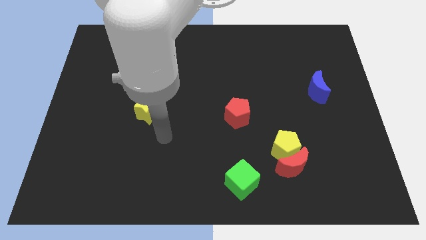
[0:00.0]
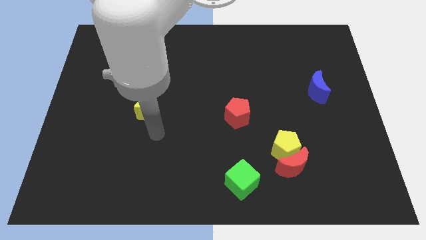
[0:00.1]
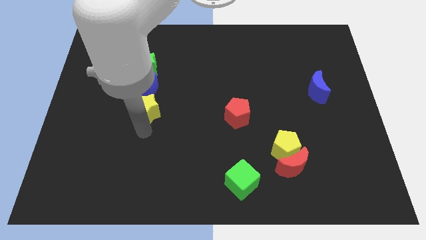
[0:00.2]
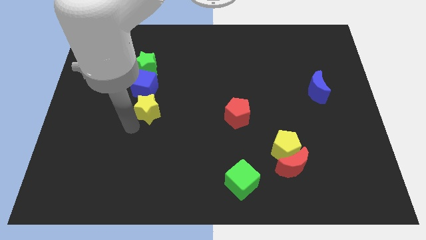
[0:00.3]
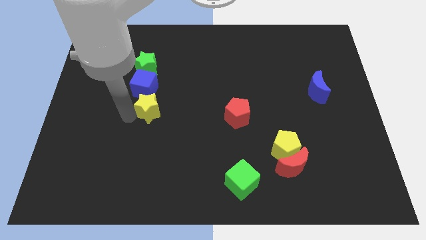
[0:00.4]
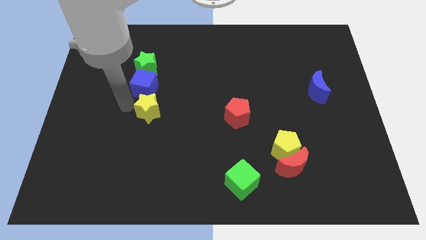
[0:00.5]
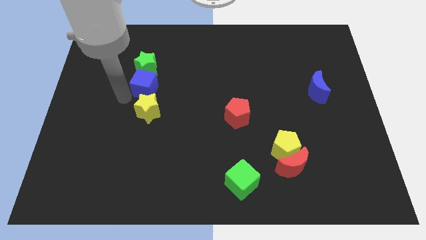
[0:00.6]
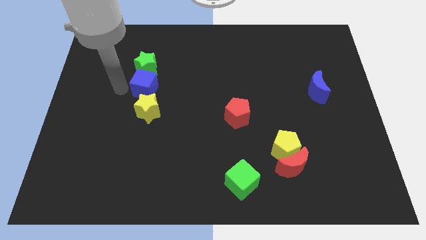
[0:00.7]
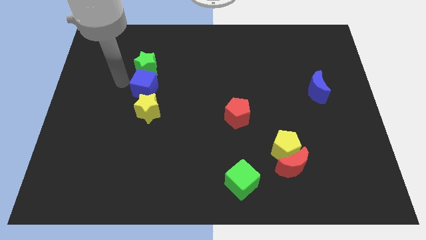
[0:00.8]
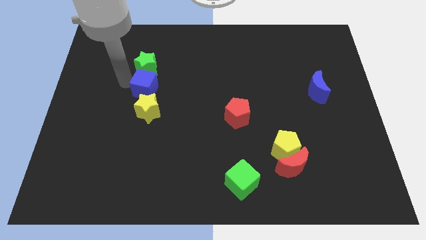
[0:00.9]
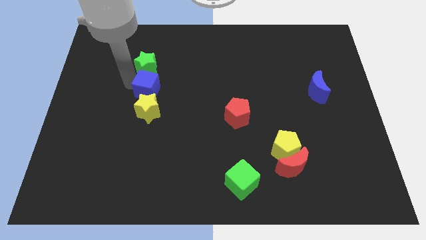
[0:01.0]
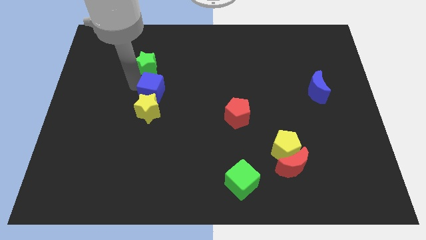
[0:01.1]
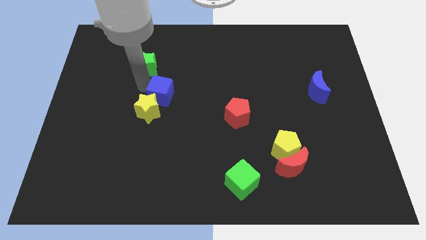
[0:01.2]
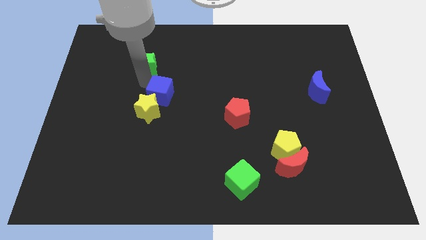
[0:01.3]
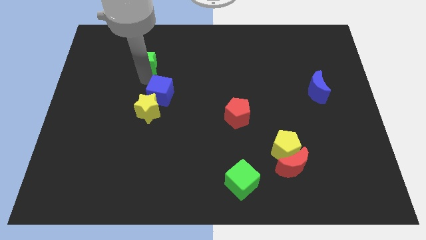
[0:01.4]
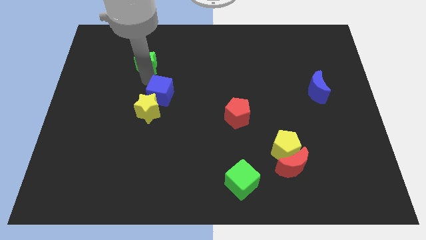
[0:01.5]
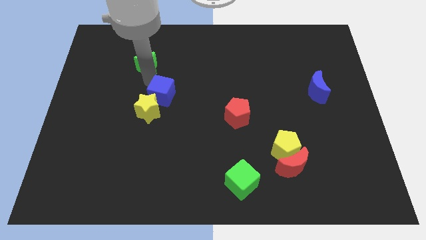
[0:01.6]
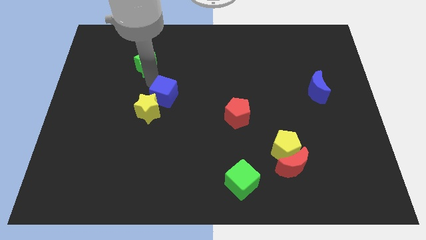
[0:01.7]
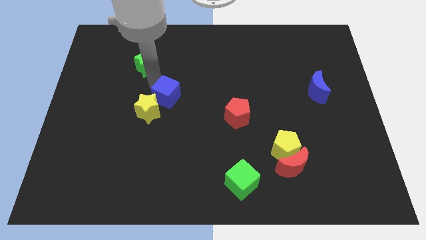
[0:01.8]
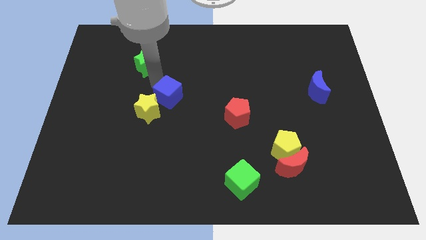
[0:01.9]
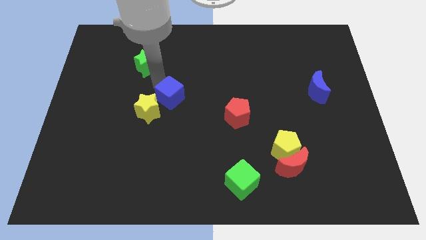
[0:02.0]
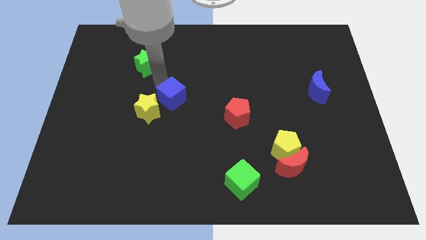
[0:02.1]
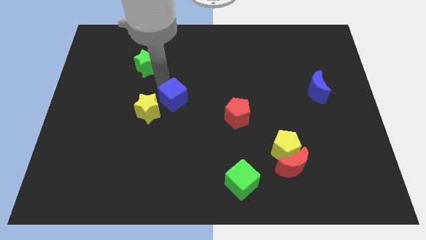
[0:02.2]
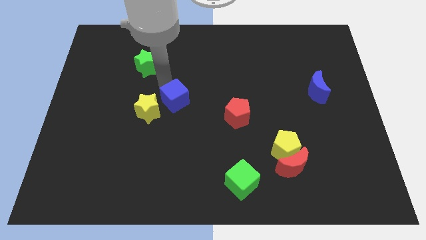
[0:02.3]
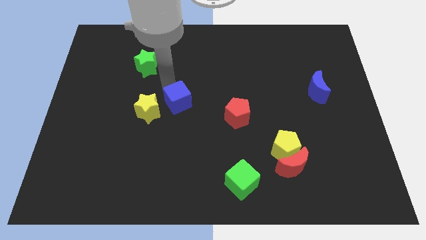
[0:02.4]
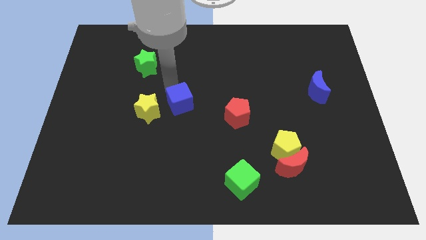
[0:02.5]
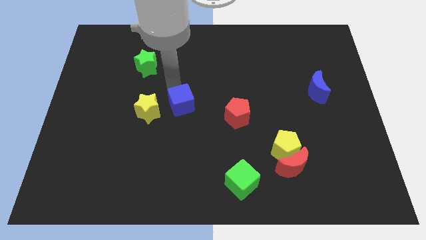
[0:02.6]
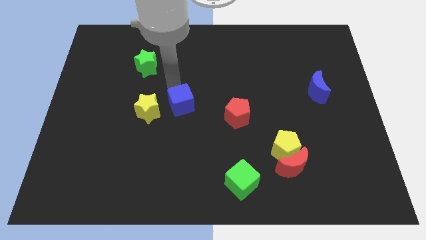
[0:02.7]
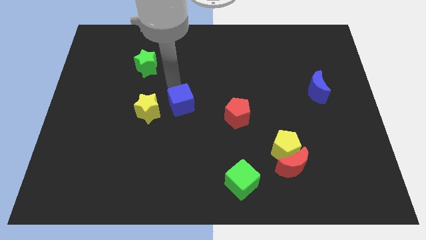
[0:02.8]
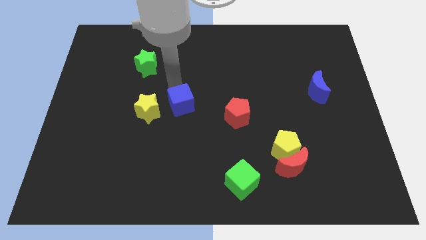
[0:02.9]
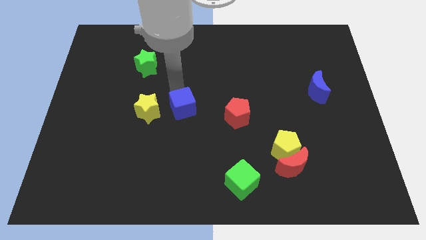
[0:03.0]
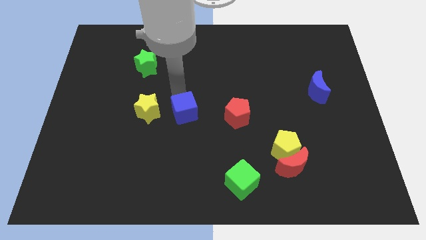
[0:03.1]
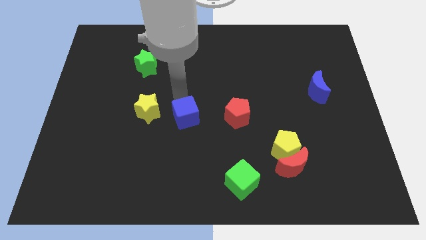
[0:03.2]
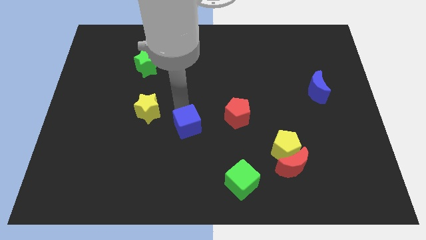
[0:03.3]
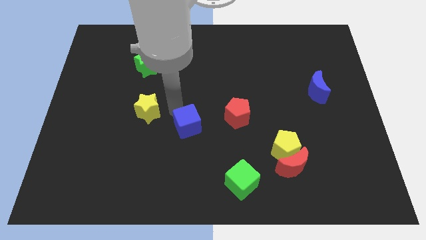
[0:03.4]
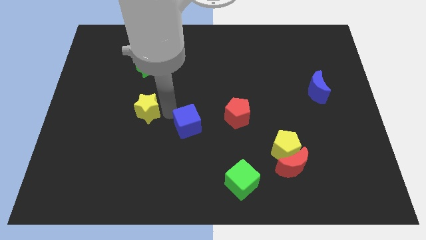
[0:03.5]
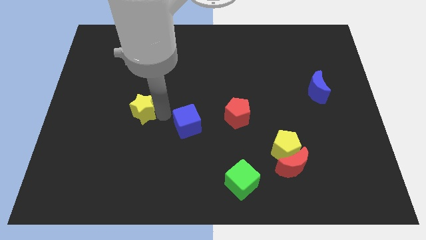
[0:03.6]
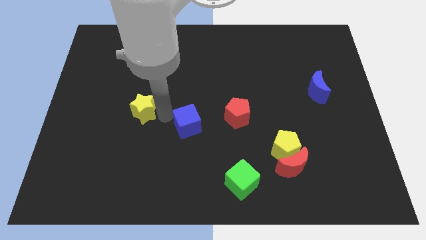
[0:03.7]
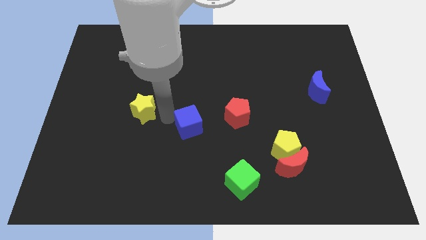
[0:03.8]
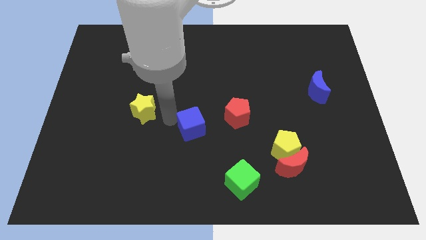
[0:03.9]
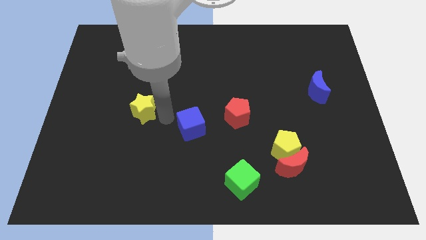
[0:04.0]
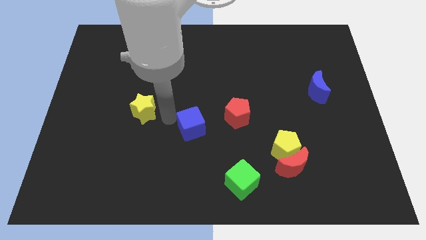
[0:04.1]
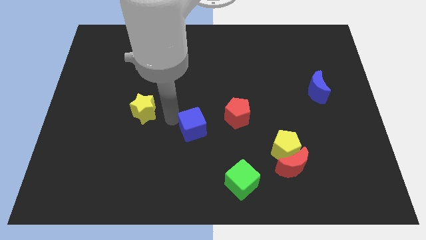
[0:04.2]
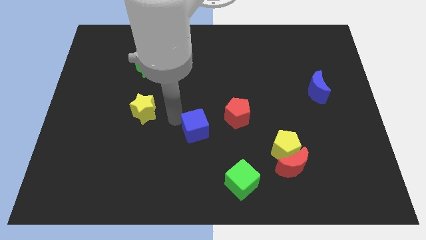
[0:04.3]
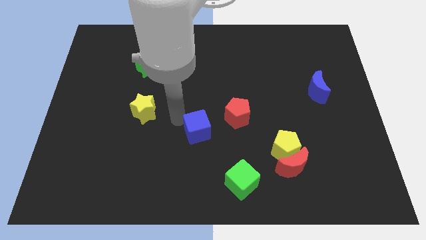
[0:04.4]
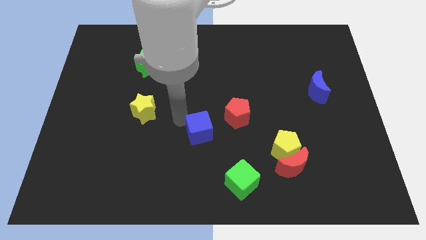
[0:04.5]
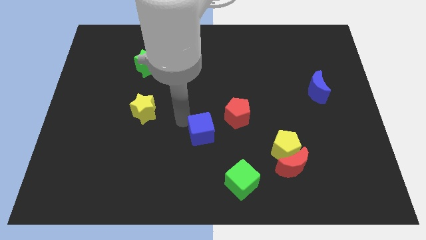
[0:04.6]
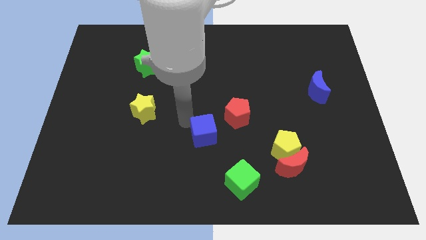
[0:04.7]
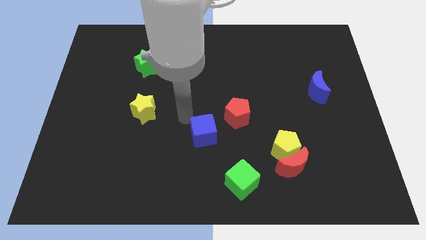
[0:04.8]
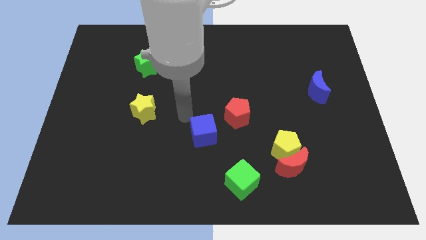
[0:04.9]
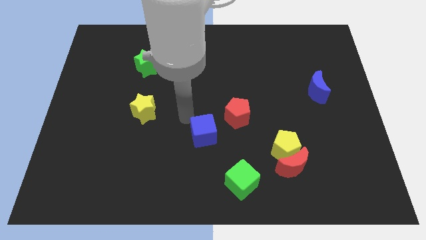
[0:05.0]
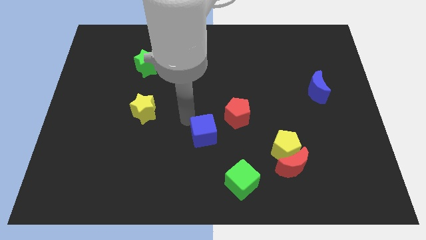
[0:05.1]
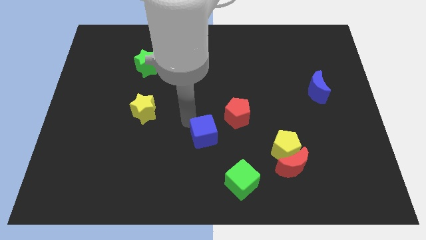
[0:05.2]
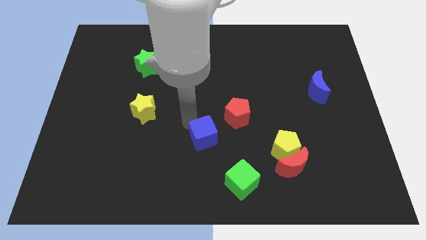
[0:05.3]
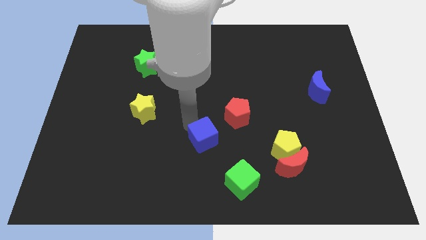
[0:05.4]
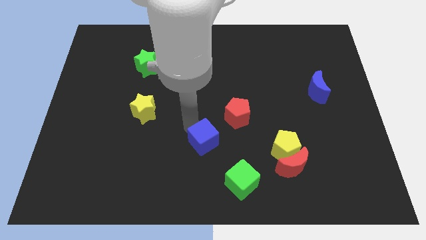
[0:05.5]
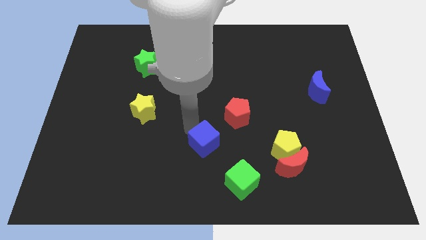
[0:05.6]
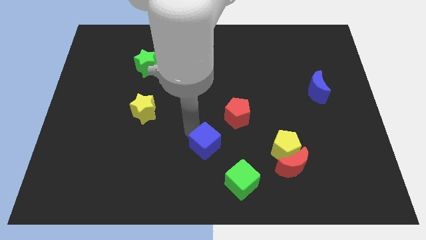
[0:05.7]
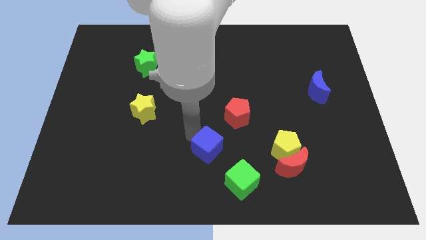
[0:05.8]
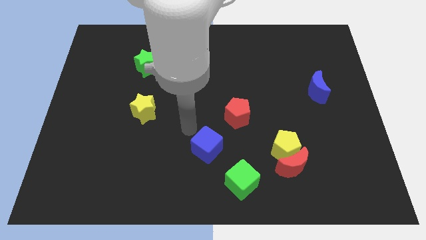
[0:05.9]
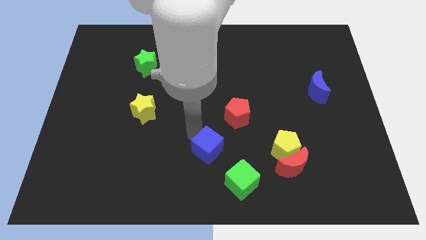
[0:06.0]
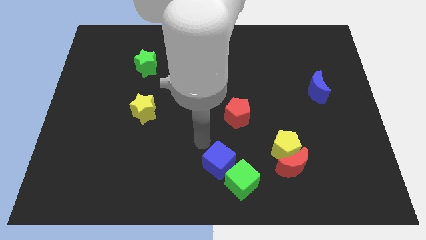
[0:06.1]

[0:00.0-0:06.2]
push the blue cube next to the green cube

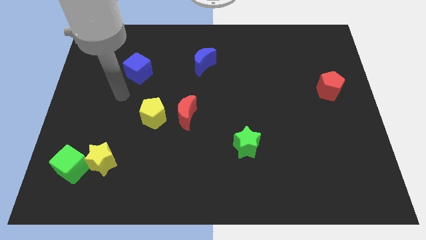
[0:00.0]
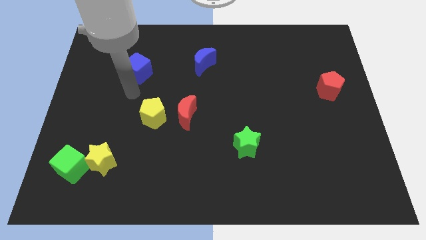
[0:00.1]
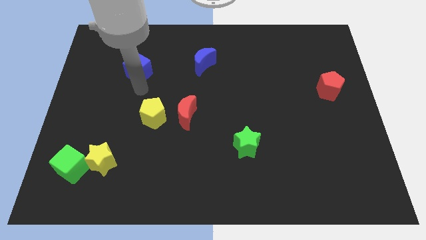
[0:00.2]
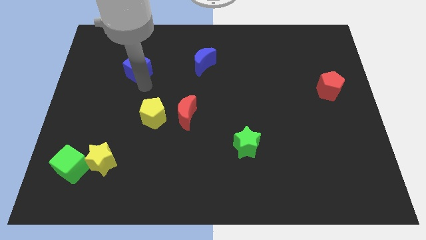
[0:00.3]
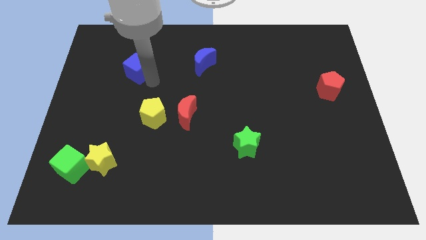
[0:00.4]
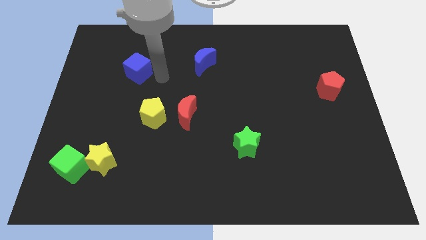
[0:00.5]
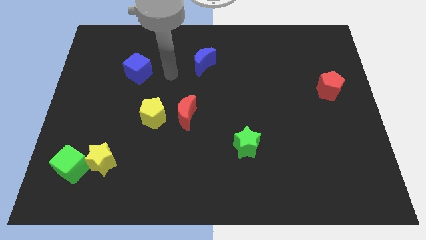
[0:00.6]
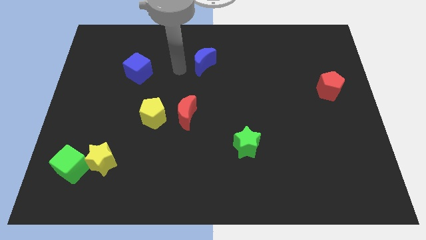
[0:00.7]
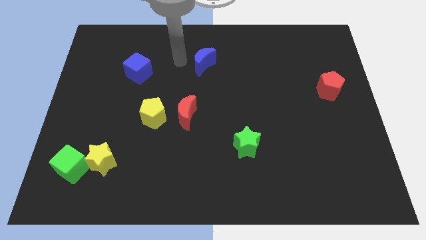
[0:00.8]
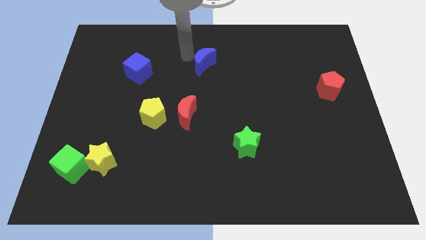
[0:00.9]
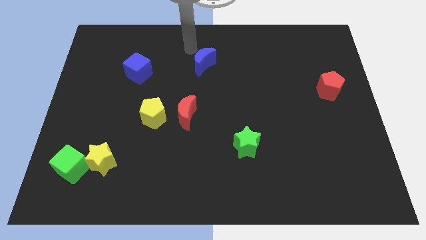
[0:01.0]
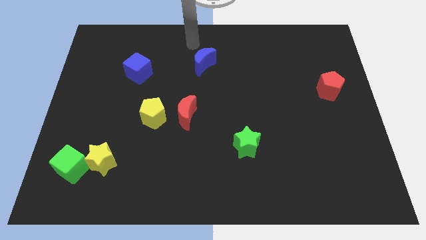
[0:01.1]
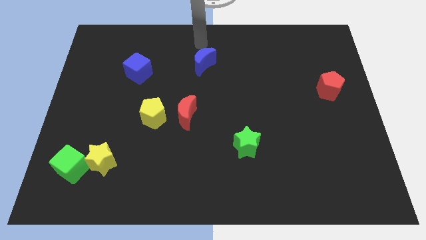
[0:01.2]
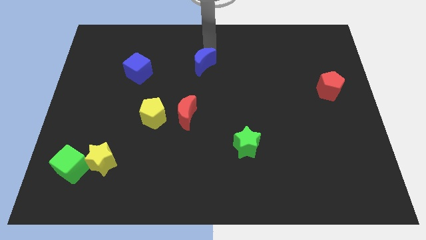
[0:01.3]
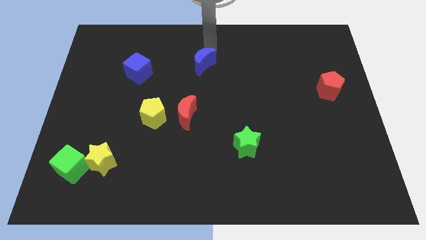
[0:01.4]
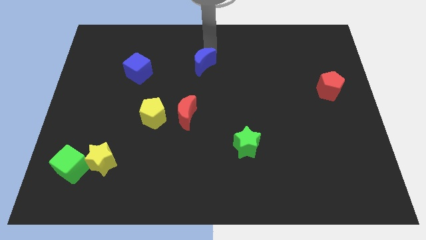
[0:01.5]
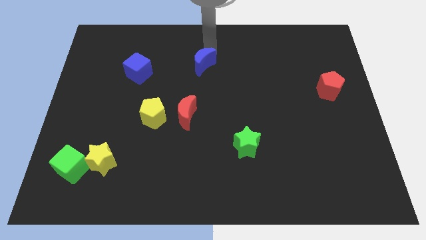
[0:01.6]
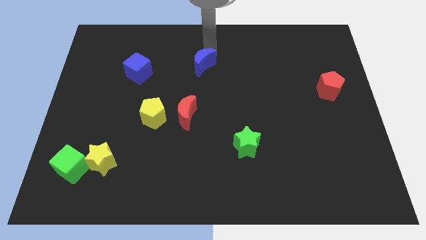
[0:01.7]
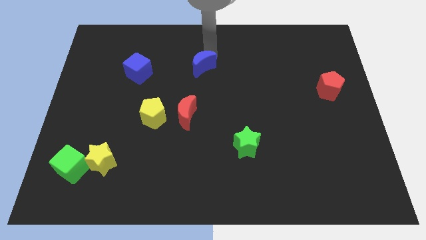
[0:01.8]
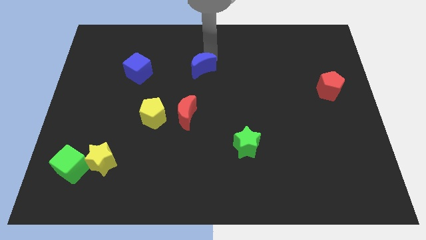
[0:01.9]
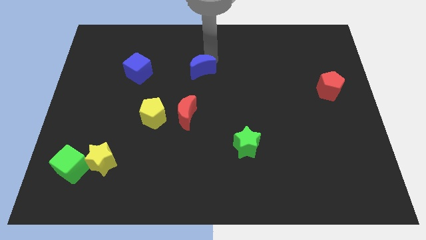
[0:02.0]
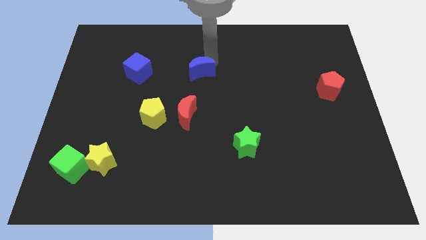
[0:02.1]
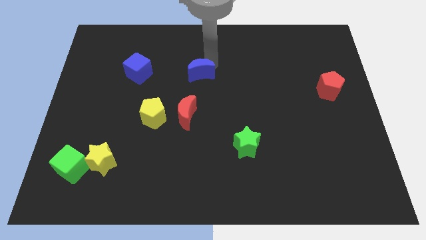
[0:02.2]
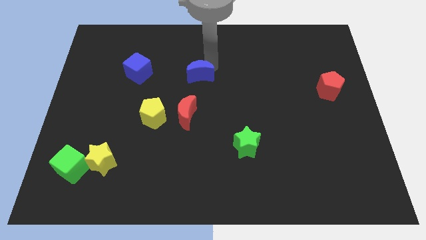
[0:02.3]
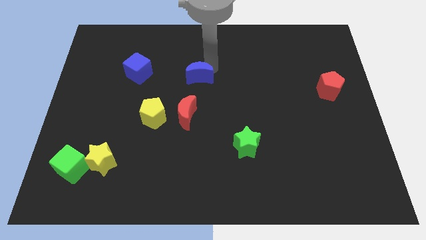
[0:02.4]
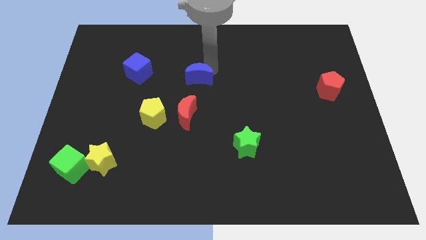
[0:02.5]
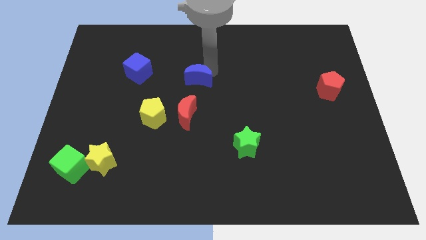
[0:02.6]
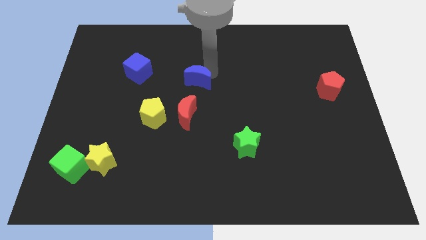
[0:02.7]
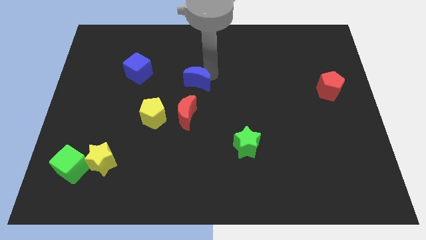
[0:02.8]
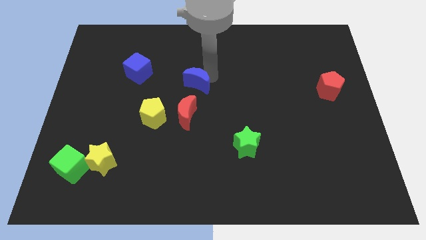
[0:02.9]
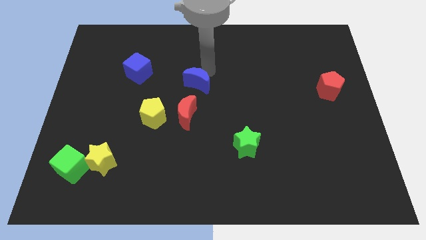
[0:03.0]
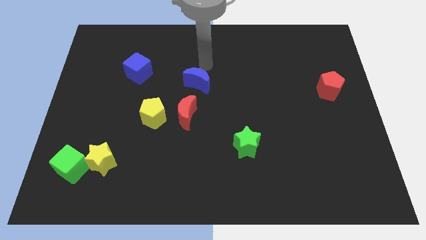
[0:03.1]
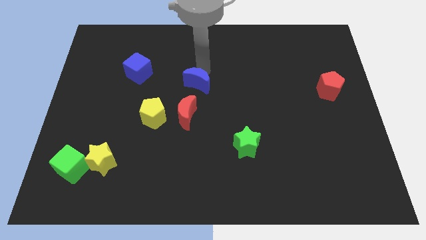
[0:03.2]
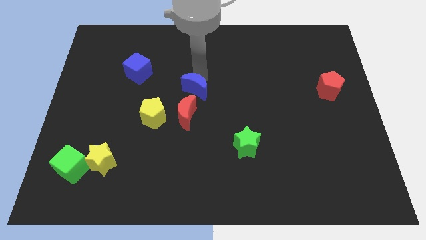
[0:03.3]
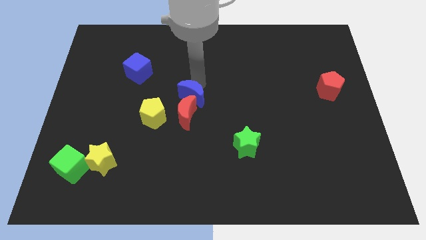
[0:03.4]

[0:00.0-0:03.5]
slide the blue moon close to the red moon
